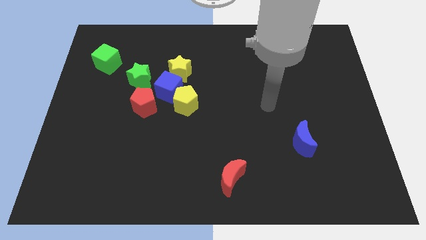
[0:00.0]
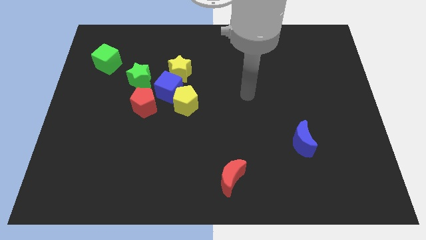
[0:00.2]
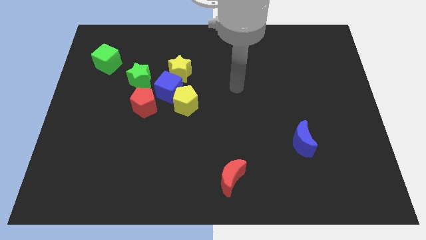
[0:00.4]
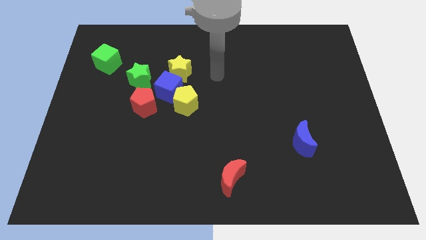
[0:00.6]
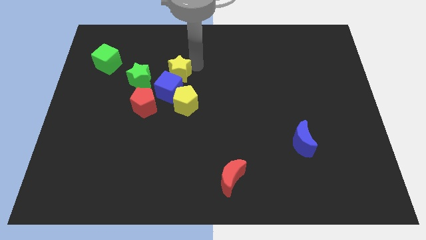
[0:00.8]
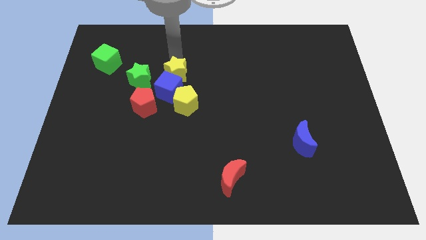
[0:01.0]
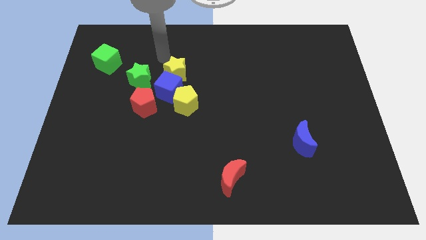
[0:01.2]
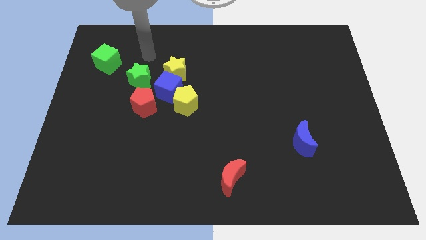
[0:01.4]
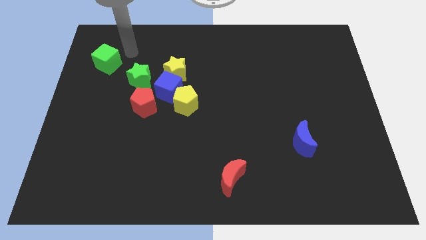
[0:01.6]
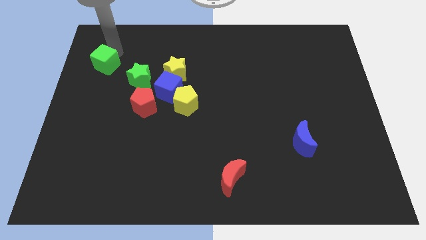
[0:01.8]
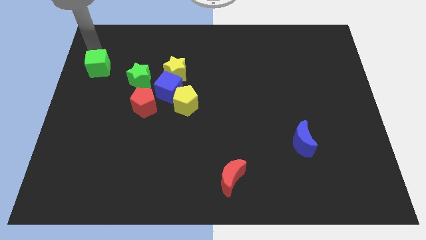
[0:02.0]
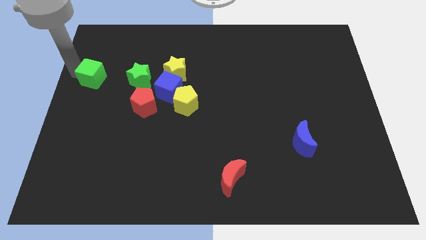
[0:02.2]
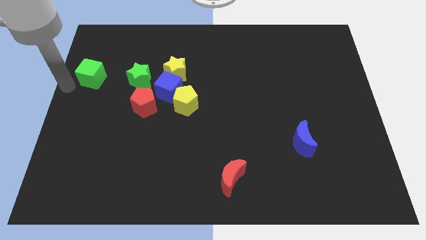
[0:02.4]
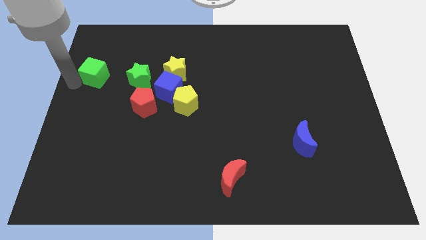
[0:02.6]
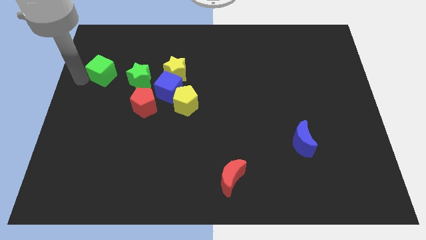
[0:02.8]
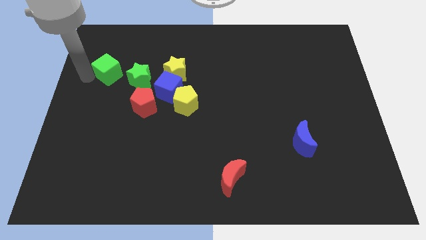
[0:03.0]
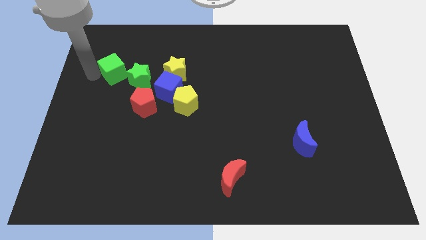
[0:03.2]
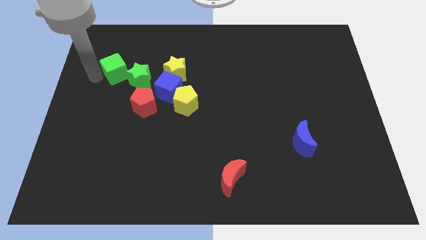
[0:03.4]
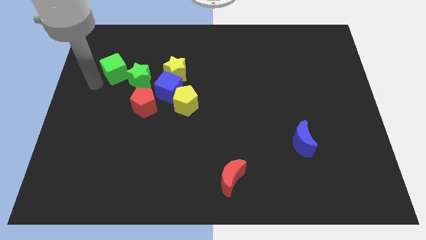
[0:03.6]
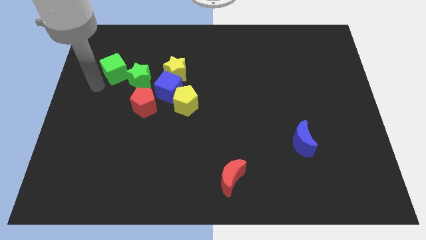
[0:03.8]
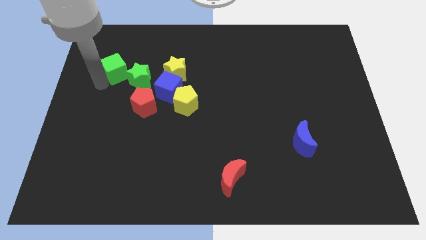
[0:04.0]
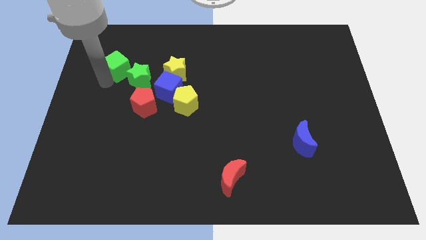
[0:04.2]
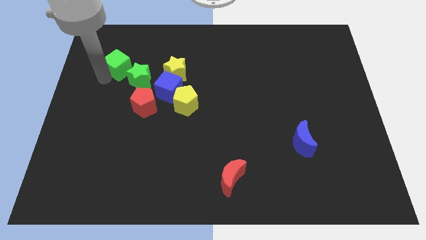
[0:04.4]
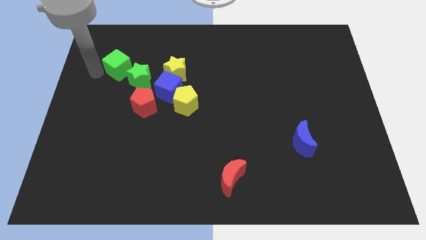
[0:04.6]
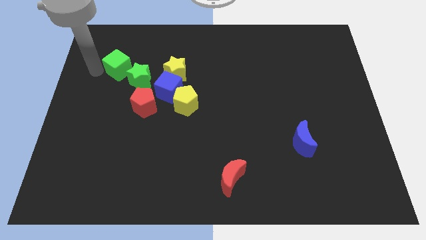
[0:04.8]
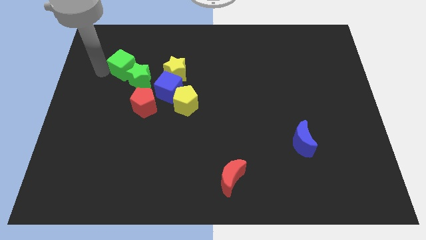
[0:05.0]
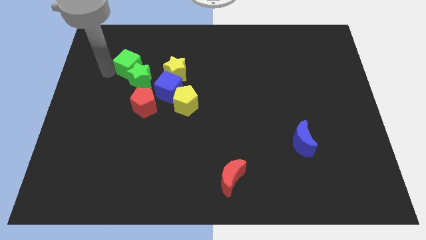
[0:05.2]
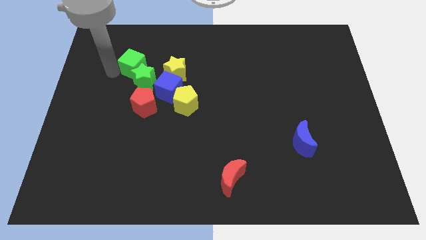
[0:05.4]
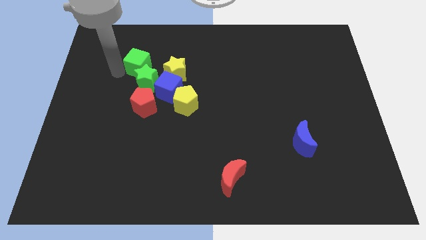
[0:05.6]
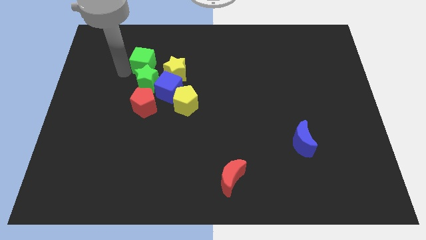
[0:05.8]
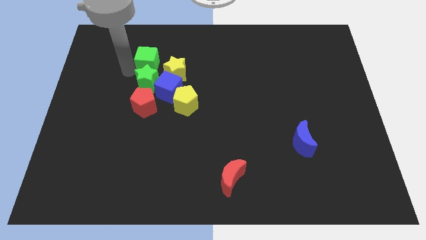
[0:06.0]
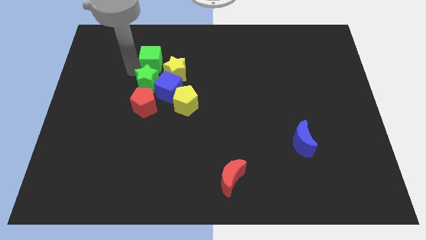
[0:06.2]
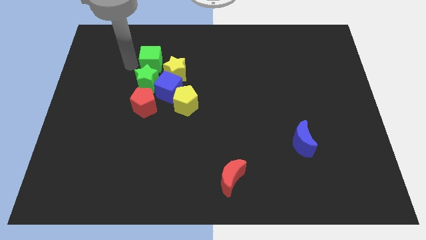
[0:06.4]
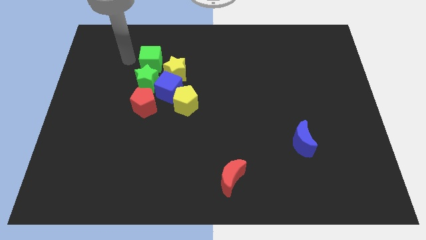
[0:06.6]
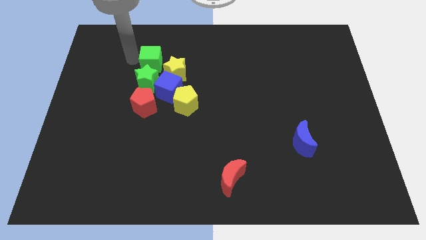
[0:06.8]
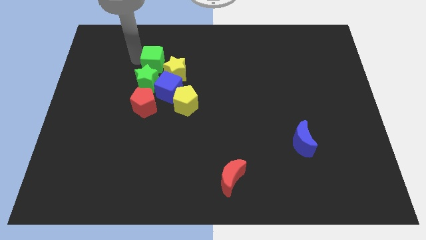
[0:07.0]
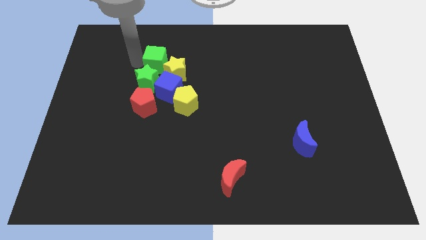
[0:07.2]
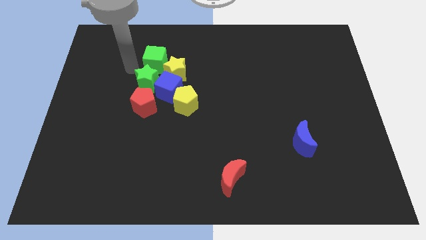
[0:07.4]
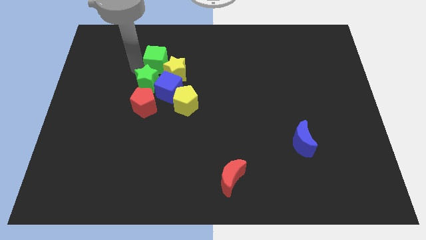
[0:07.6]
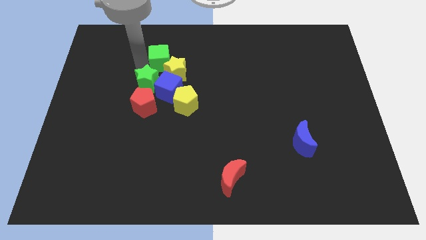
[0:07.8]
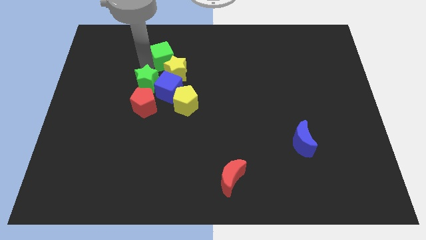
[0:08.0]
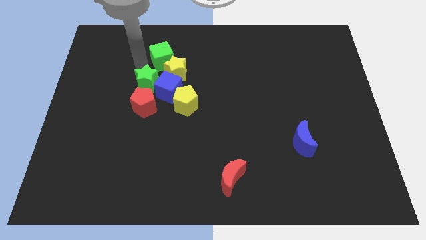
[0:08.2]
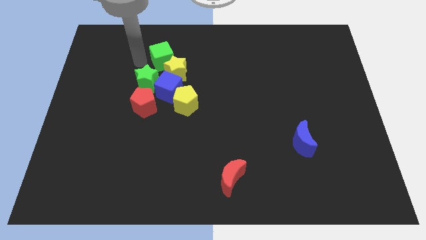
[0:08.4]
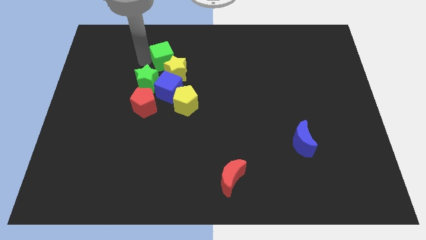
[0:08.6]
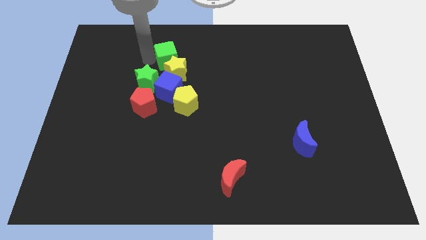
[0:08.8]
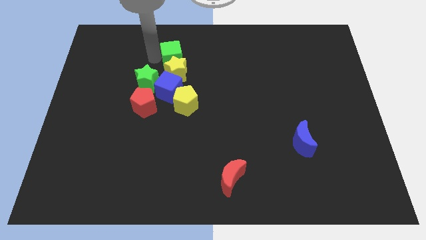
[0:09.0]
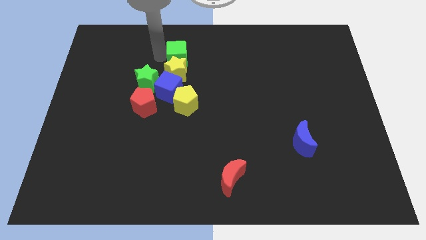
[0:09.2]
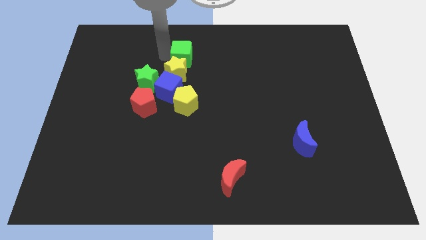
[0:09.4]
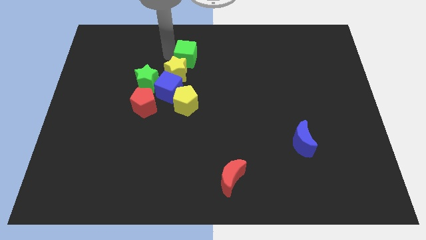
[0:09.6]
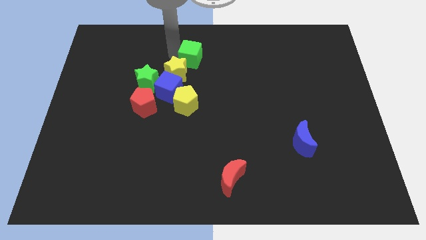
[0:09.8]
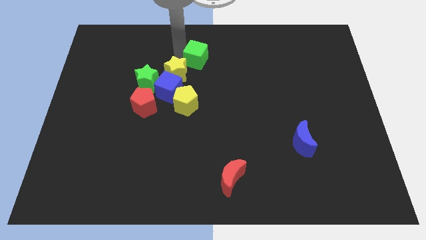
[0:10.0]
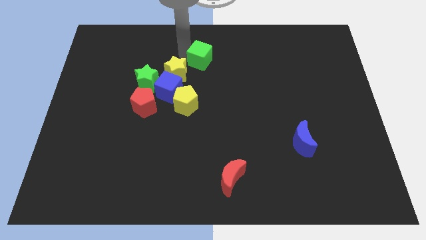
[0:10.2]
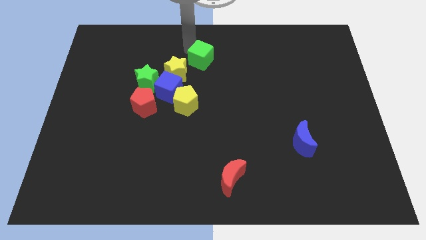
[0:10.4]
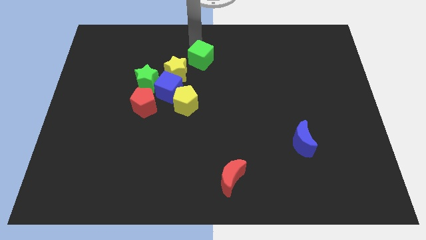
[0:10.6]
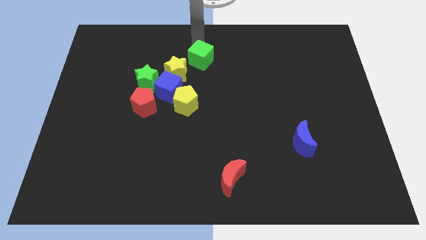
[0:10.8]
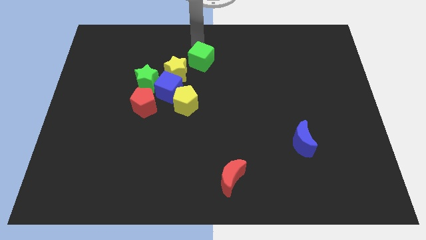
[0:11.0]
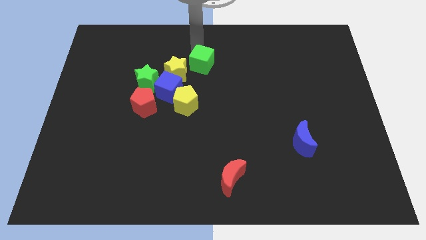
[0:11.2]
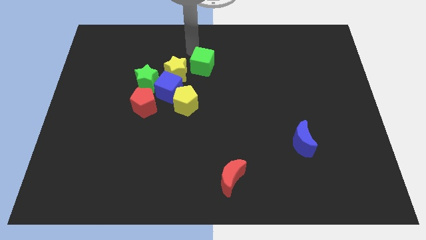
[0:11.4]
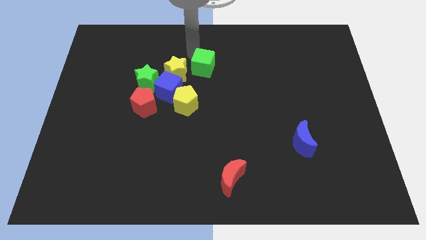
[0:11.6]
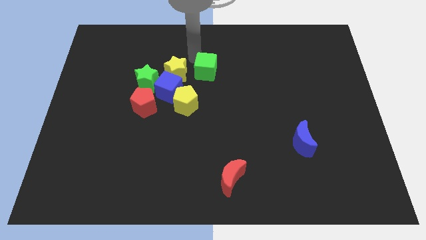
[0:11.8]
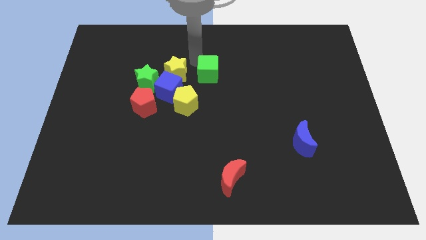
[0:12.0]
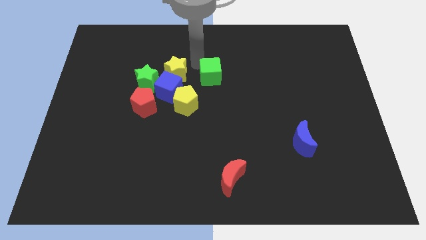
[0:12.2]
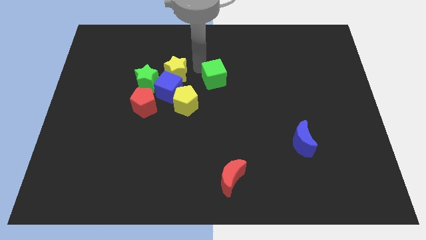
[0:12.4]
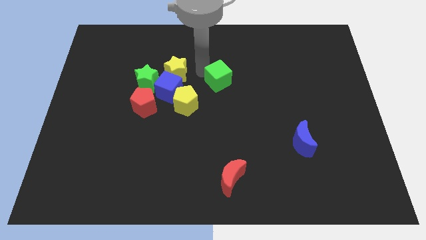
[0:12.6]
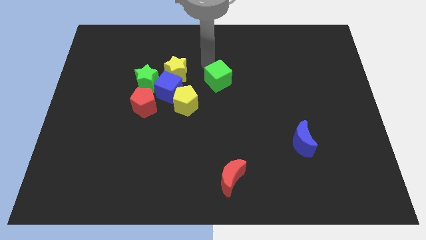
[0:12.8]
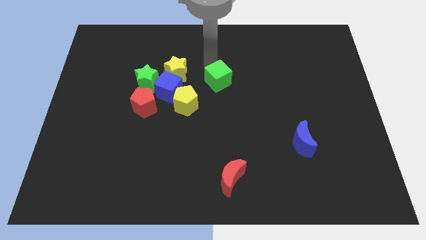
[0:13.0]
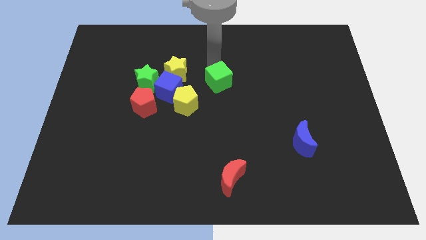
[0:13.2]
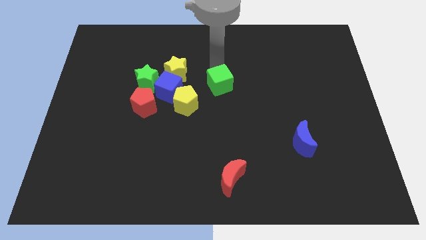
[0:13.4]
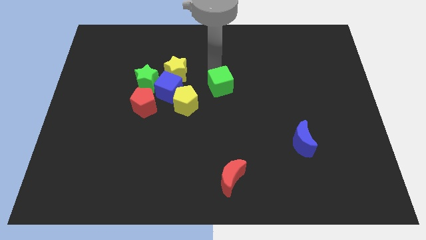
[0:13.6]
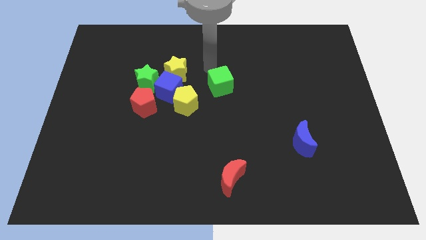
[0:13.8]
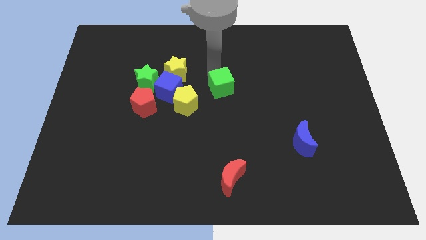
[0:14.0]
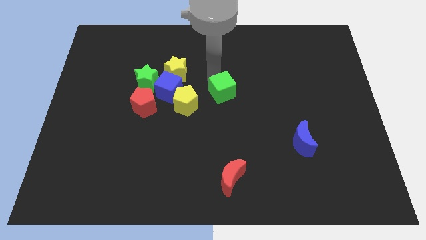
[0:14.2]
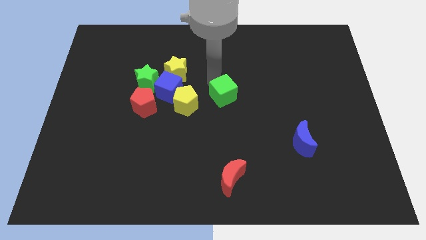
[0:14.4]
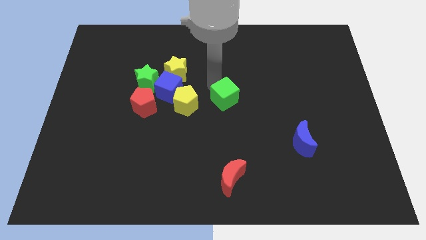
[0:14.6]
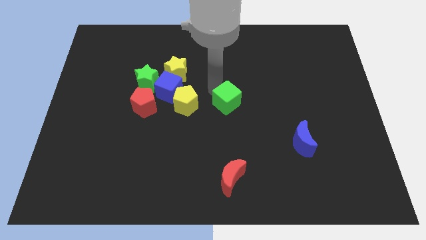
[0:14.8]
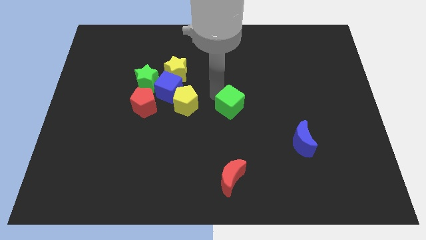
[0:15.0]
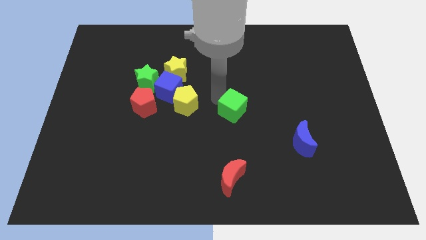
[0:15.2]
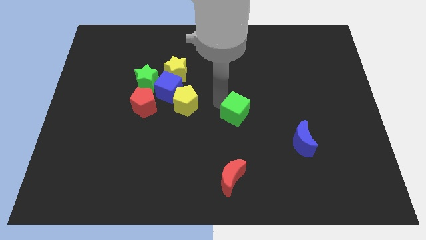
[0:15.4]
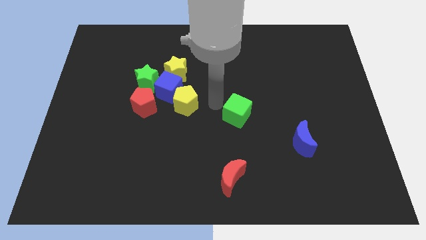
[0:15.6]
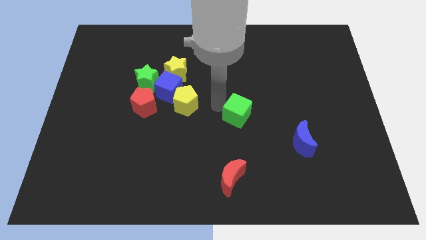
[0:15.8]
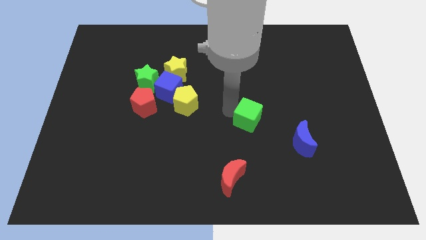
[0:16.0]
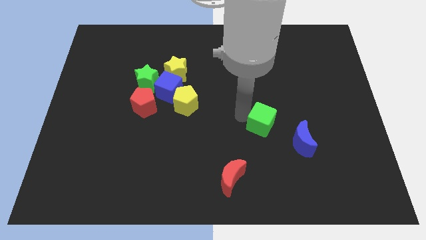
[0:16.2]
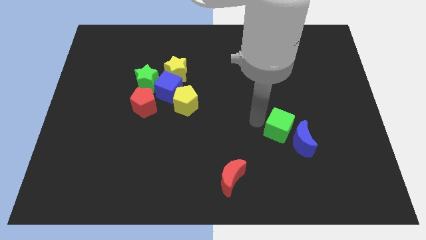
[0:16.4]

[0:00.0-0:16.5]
move the green cube close to the blue moon
